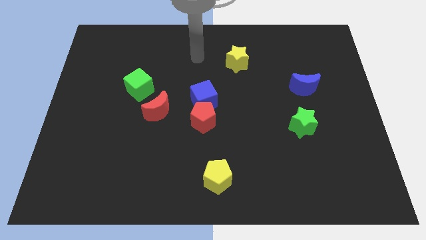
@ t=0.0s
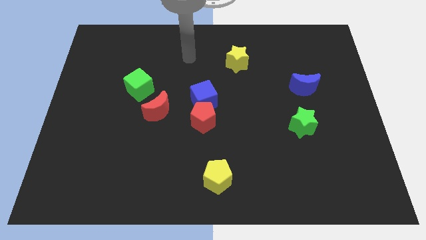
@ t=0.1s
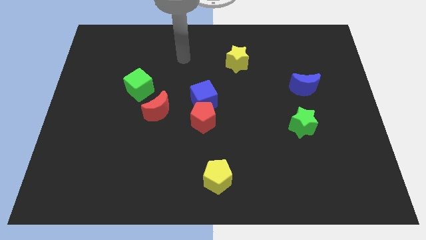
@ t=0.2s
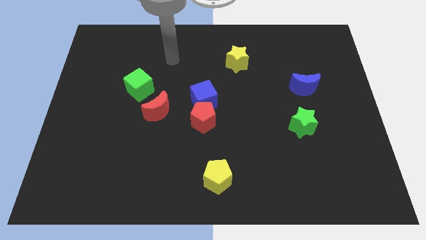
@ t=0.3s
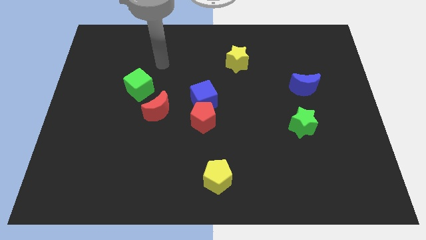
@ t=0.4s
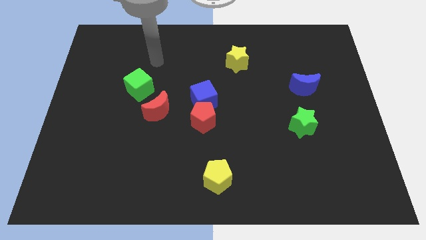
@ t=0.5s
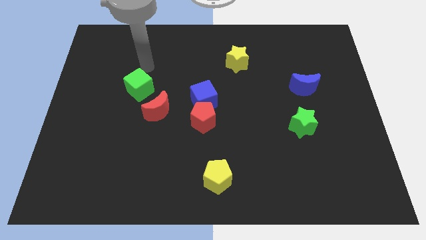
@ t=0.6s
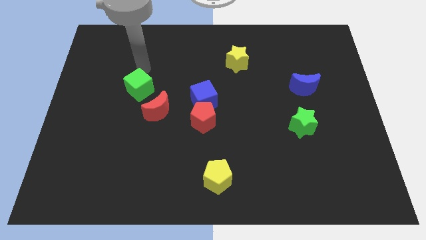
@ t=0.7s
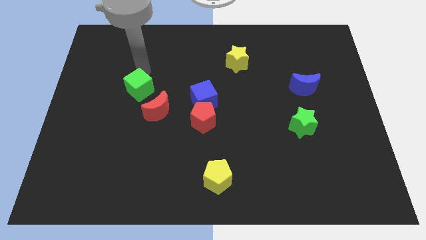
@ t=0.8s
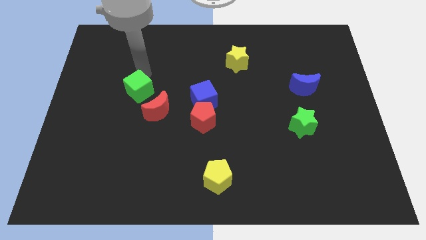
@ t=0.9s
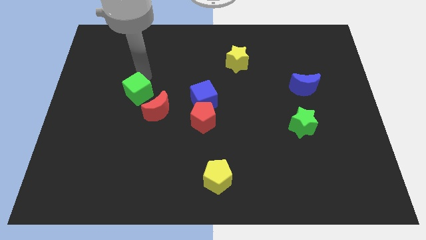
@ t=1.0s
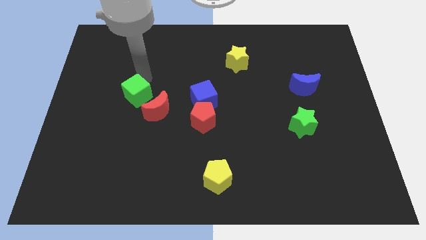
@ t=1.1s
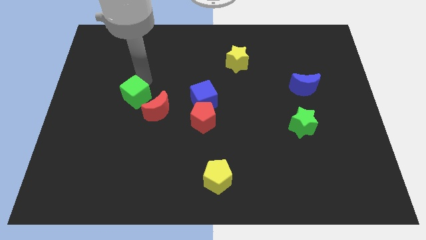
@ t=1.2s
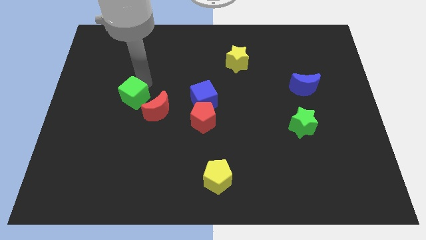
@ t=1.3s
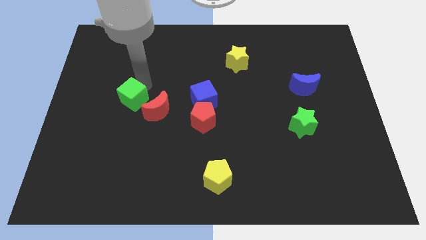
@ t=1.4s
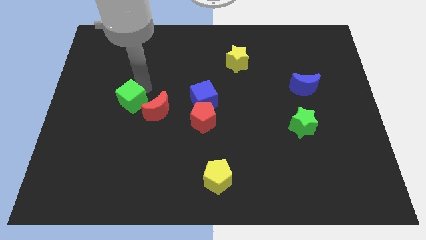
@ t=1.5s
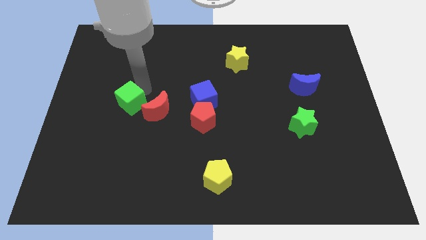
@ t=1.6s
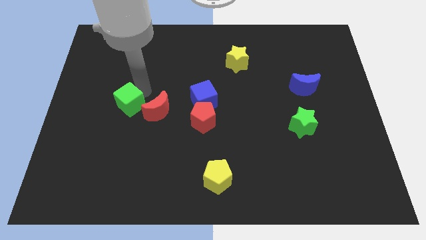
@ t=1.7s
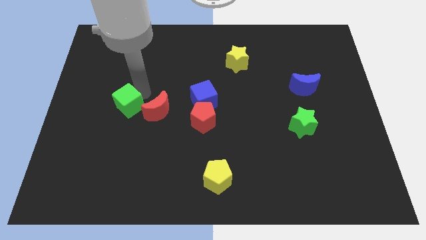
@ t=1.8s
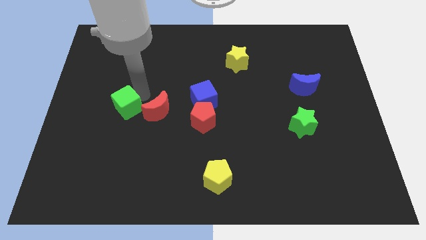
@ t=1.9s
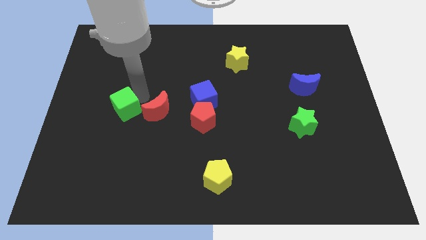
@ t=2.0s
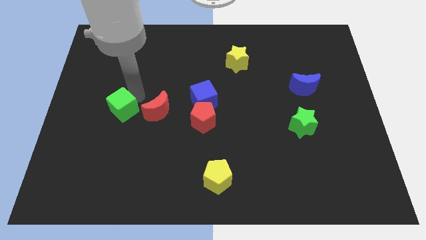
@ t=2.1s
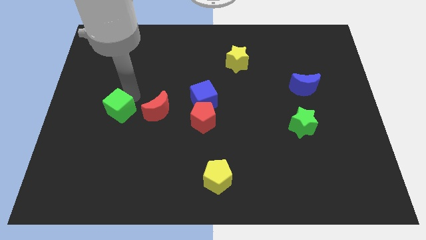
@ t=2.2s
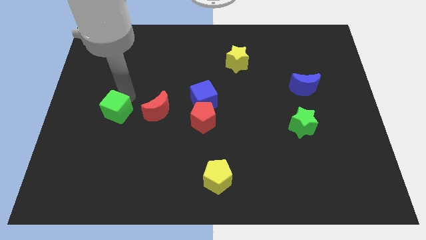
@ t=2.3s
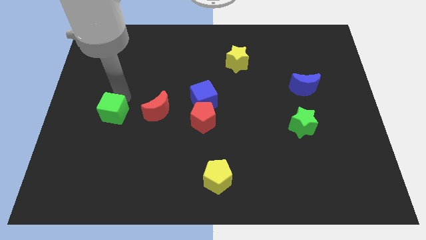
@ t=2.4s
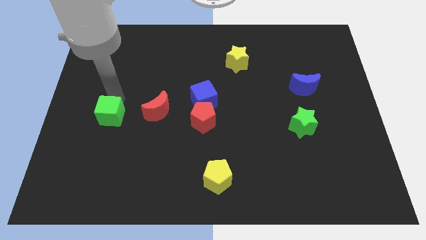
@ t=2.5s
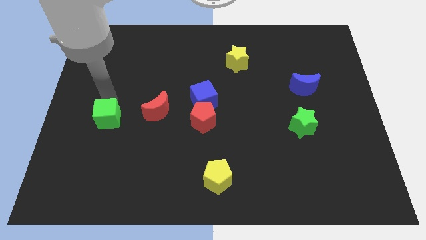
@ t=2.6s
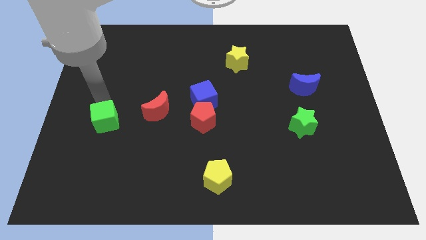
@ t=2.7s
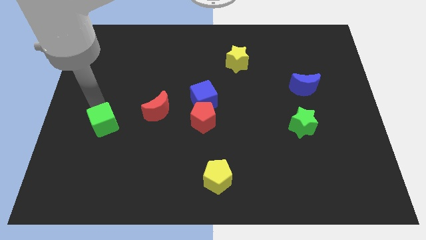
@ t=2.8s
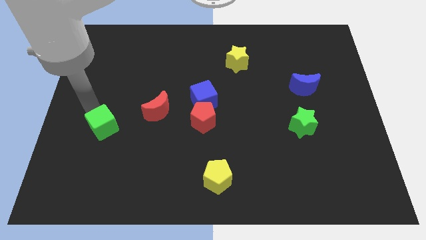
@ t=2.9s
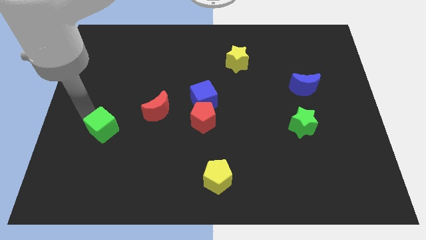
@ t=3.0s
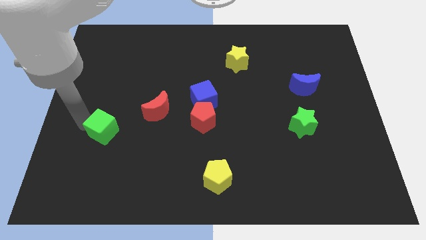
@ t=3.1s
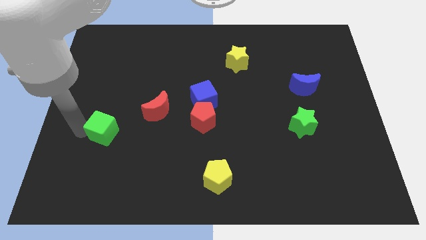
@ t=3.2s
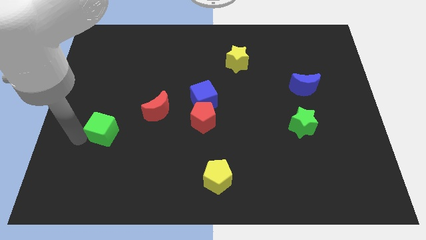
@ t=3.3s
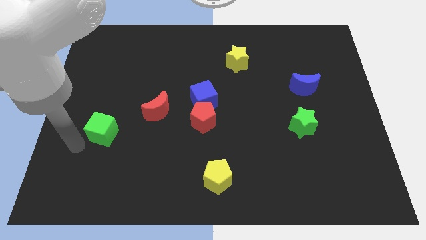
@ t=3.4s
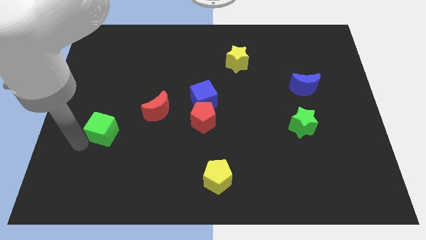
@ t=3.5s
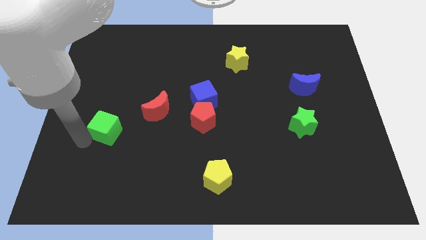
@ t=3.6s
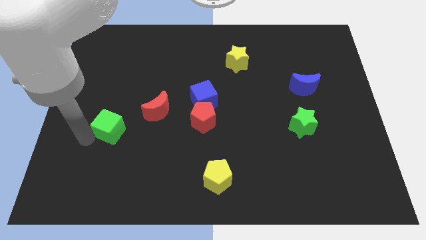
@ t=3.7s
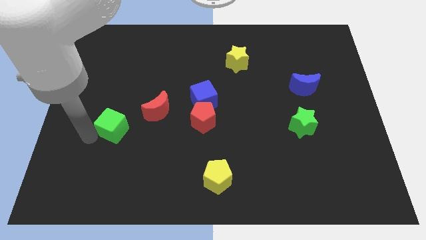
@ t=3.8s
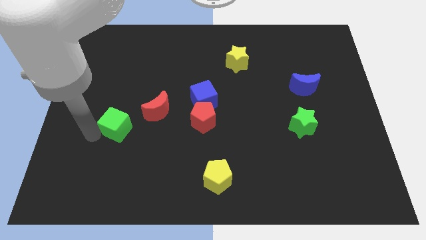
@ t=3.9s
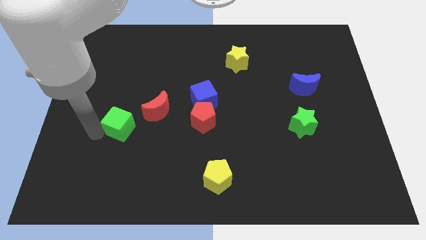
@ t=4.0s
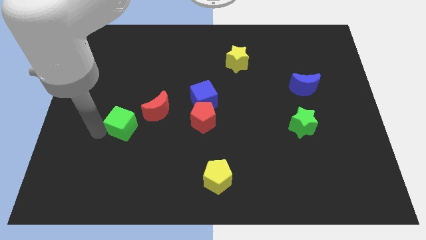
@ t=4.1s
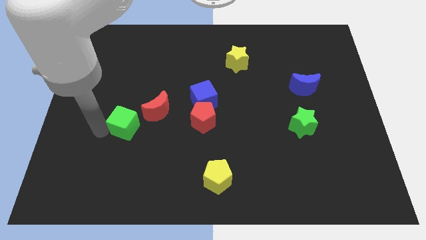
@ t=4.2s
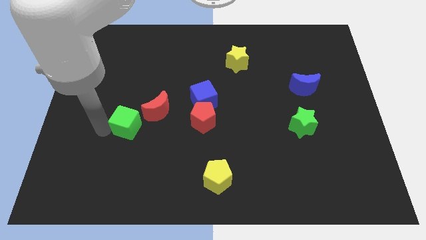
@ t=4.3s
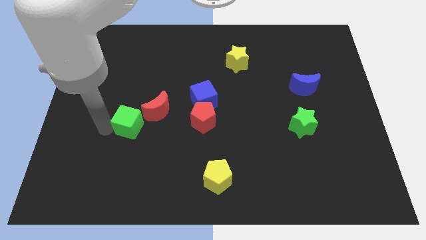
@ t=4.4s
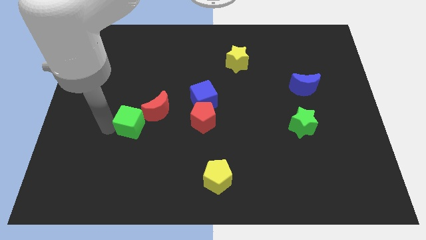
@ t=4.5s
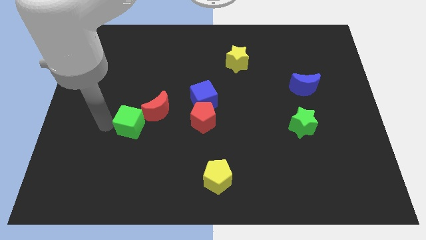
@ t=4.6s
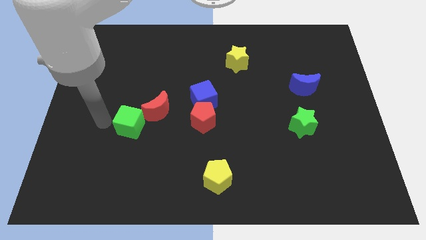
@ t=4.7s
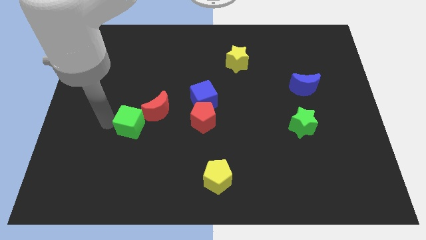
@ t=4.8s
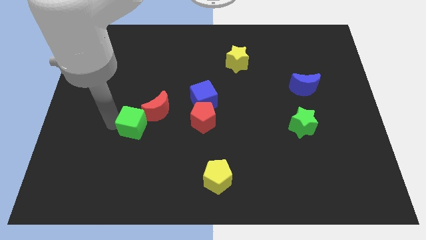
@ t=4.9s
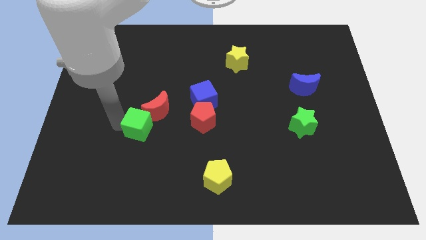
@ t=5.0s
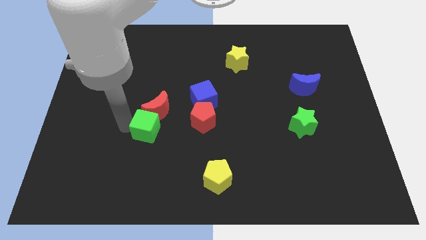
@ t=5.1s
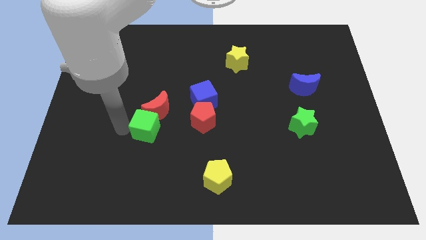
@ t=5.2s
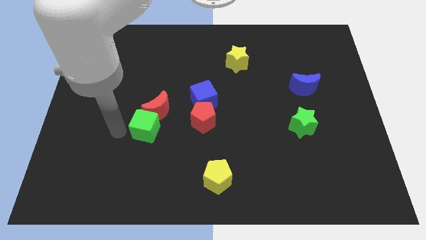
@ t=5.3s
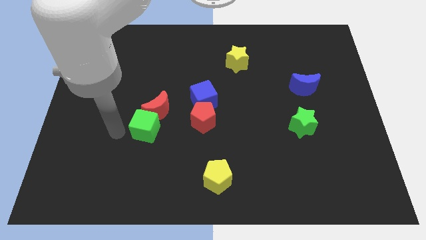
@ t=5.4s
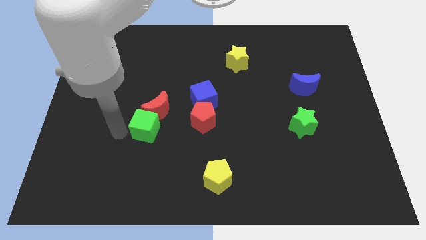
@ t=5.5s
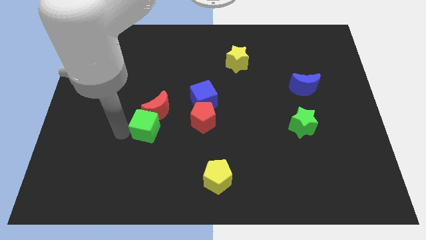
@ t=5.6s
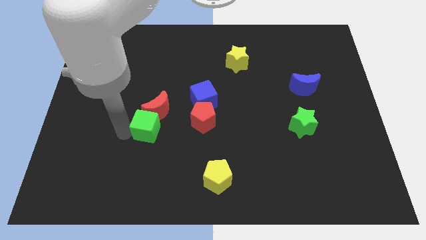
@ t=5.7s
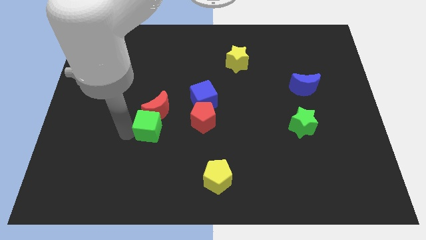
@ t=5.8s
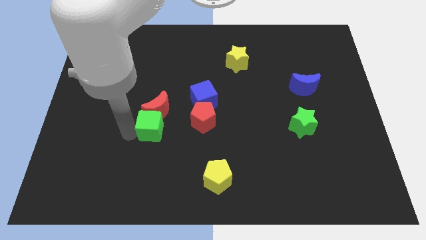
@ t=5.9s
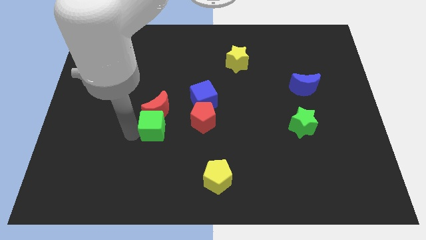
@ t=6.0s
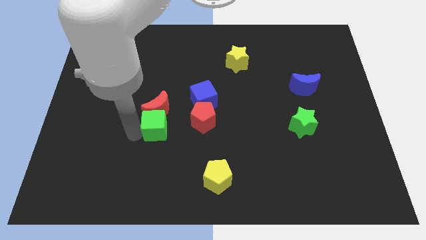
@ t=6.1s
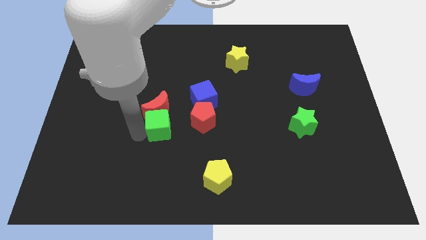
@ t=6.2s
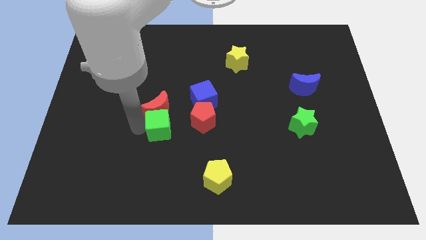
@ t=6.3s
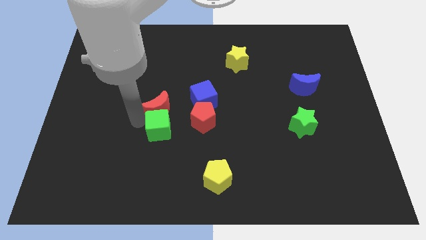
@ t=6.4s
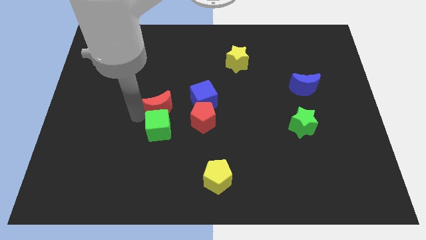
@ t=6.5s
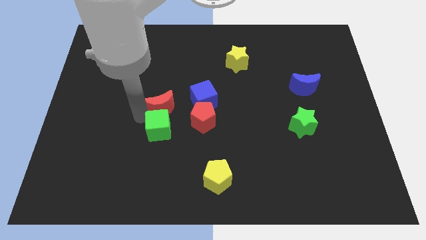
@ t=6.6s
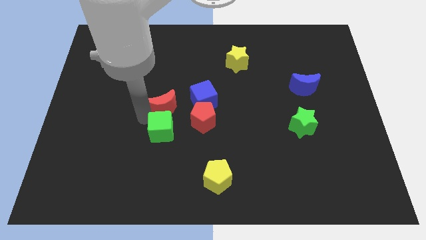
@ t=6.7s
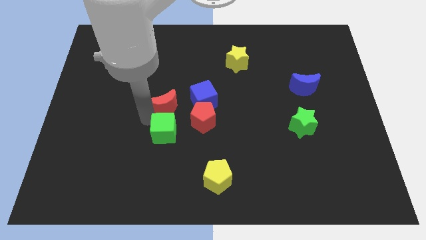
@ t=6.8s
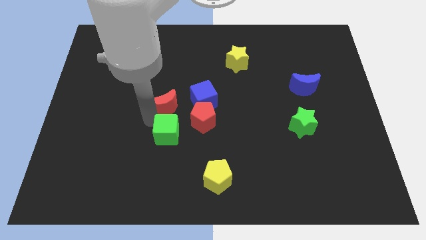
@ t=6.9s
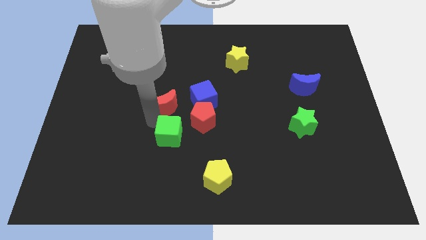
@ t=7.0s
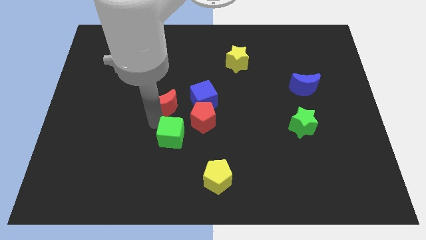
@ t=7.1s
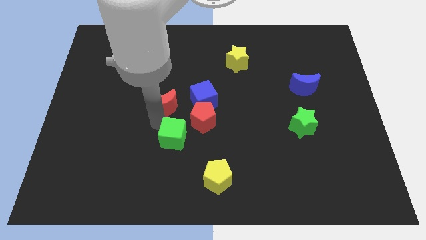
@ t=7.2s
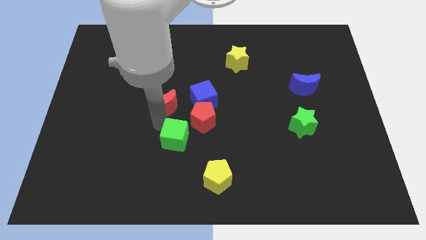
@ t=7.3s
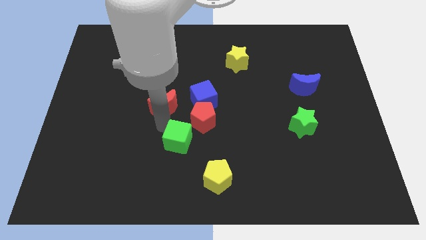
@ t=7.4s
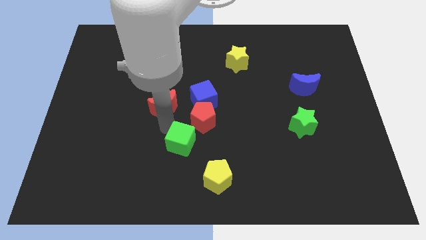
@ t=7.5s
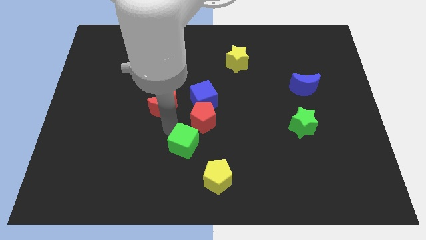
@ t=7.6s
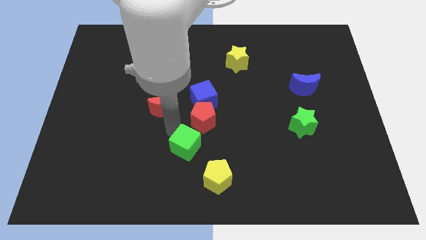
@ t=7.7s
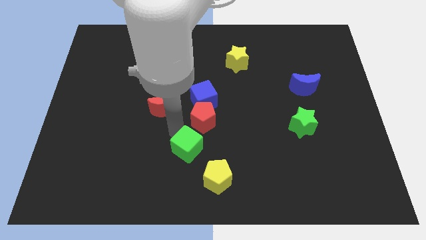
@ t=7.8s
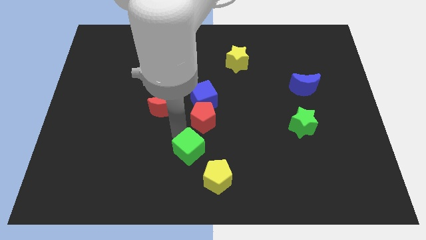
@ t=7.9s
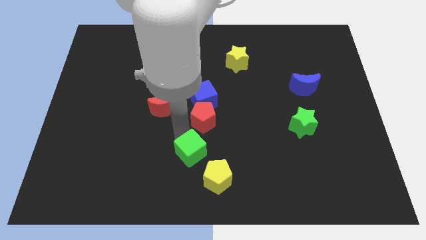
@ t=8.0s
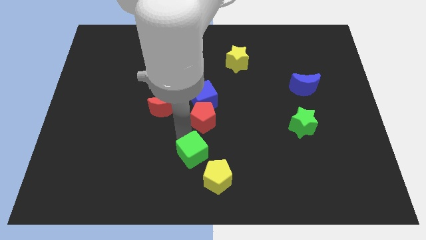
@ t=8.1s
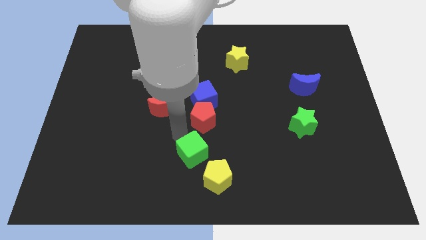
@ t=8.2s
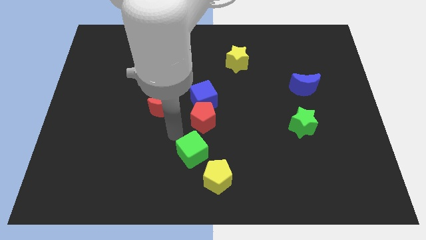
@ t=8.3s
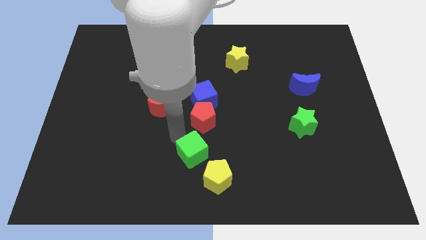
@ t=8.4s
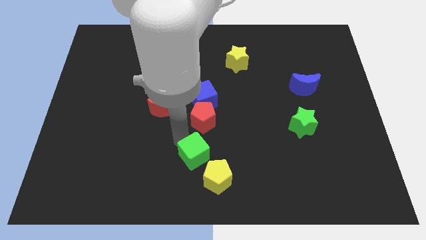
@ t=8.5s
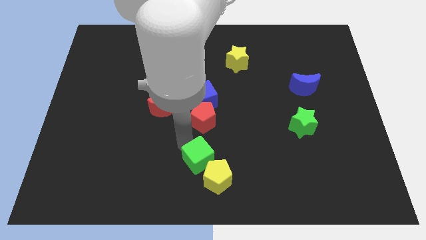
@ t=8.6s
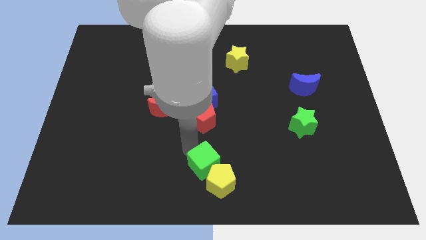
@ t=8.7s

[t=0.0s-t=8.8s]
move the green cube towards the yellow pentagon
